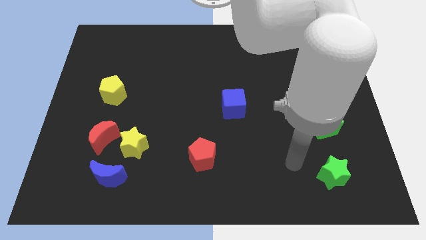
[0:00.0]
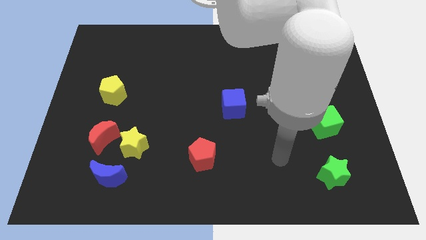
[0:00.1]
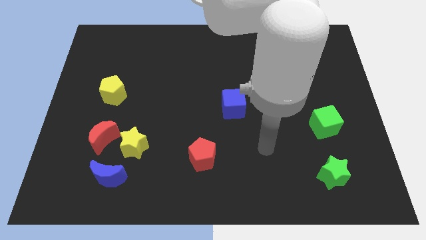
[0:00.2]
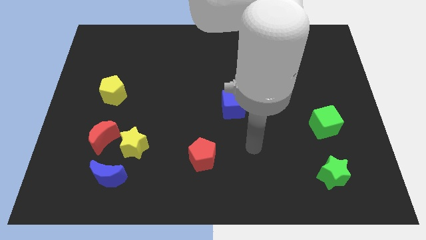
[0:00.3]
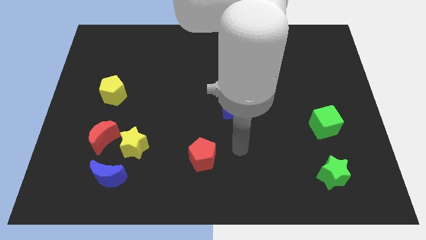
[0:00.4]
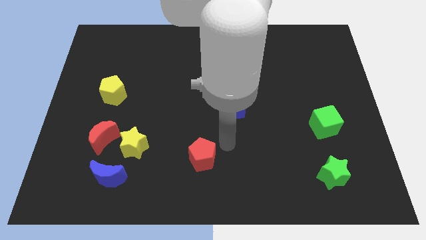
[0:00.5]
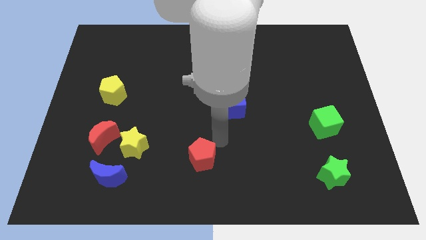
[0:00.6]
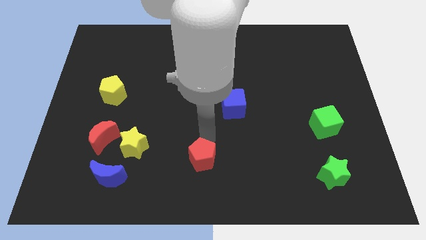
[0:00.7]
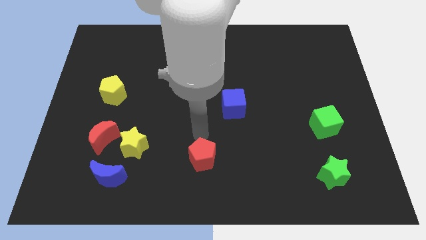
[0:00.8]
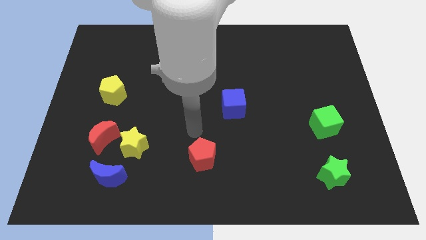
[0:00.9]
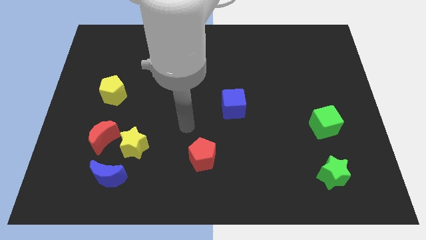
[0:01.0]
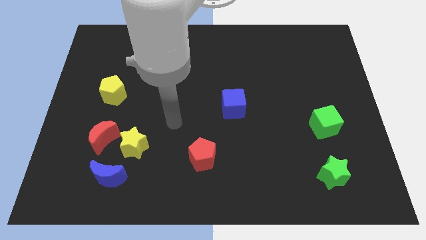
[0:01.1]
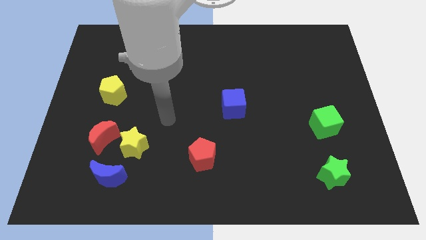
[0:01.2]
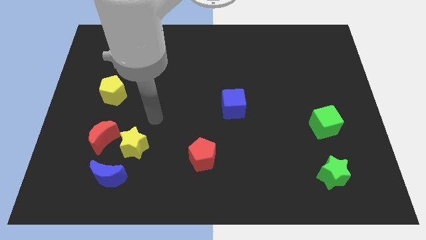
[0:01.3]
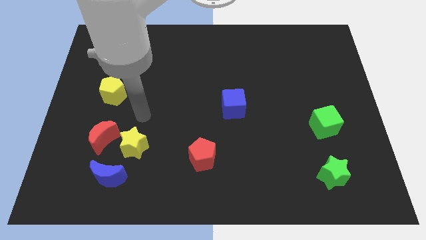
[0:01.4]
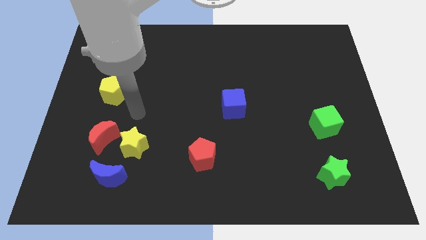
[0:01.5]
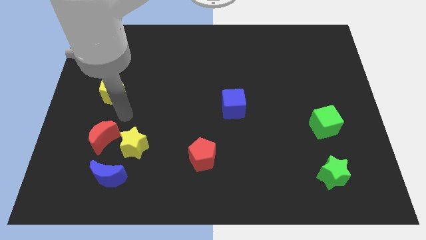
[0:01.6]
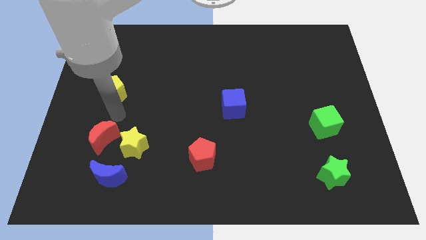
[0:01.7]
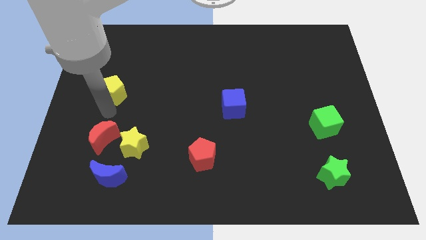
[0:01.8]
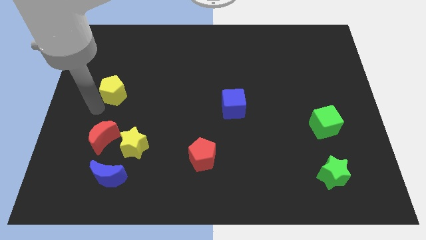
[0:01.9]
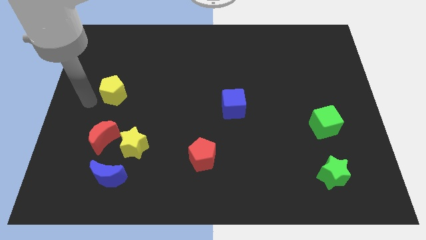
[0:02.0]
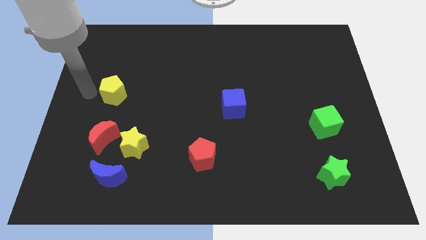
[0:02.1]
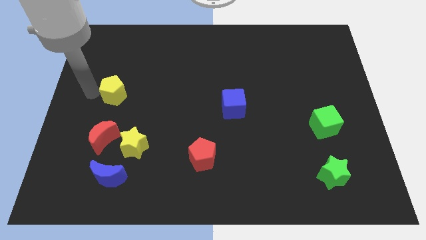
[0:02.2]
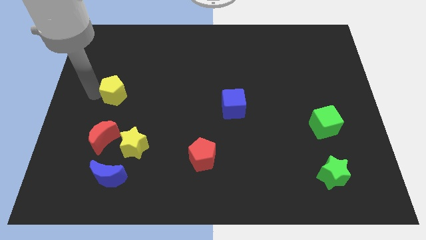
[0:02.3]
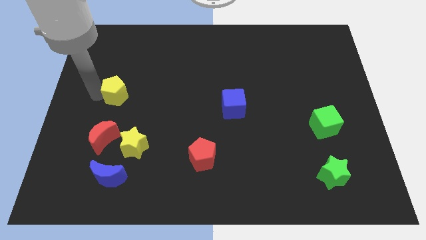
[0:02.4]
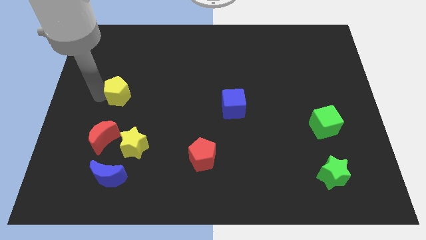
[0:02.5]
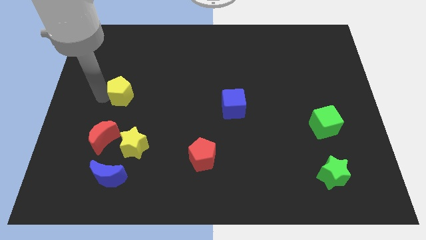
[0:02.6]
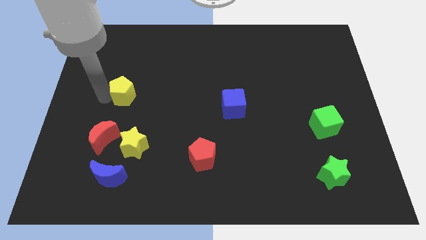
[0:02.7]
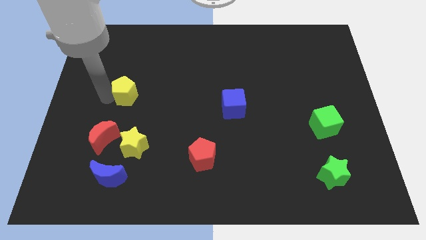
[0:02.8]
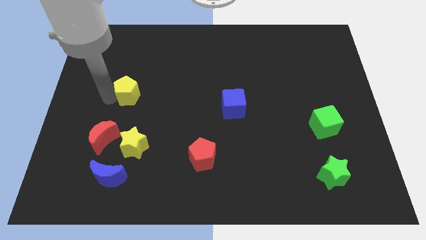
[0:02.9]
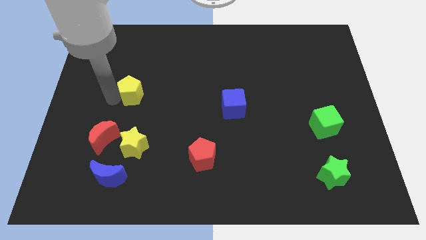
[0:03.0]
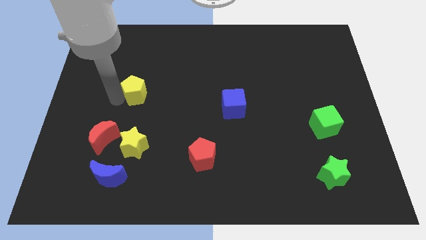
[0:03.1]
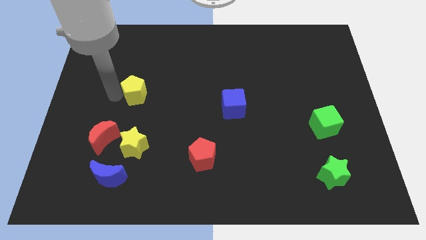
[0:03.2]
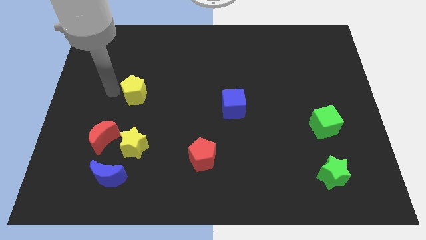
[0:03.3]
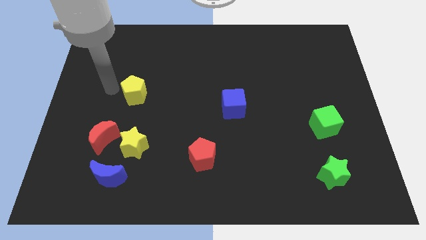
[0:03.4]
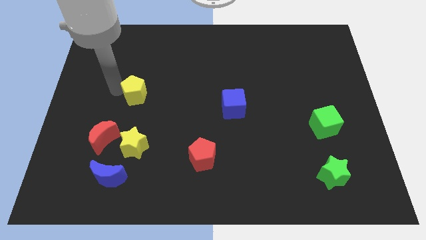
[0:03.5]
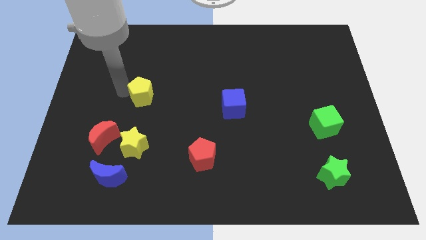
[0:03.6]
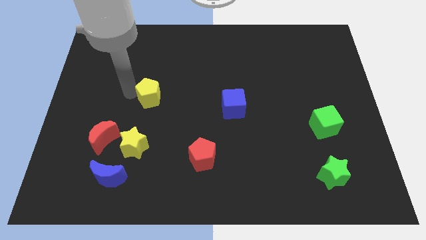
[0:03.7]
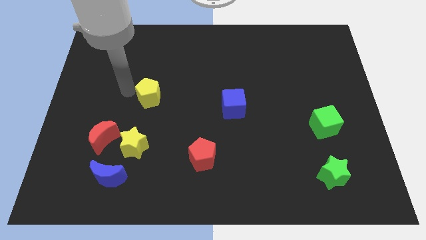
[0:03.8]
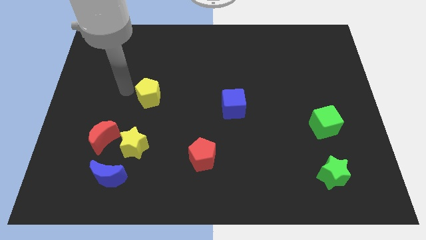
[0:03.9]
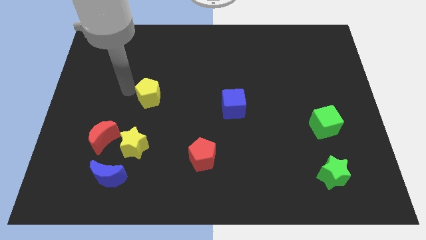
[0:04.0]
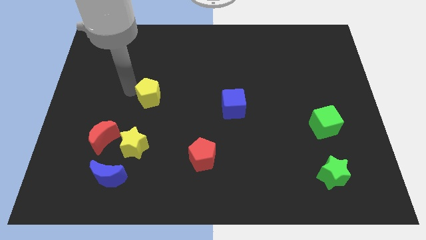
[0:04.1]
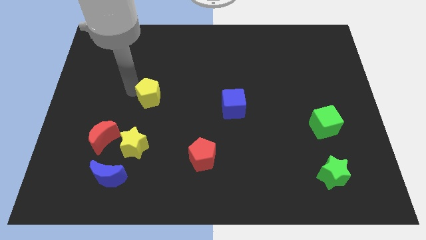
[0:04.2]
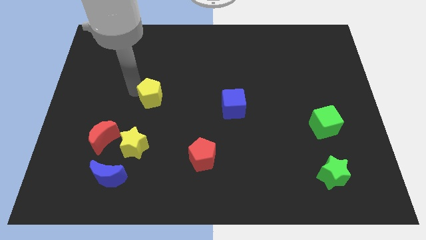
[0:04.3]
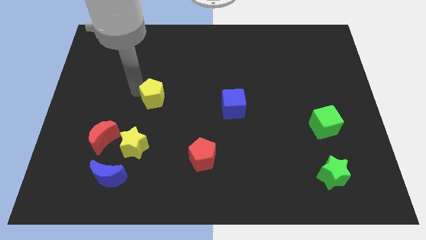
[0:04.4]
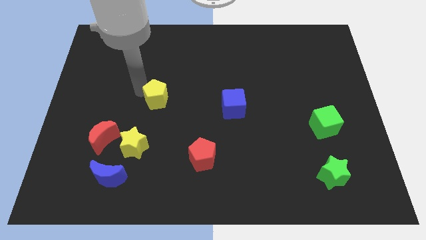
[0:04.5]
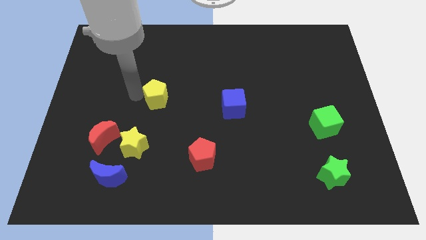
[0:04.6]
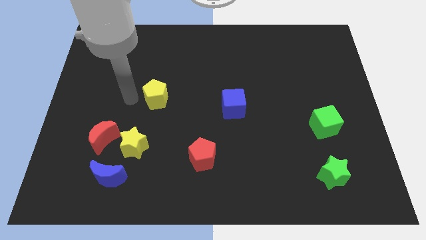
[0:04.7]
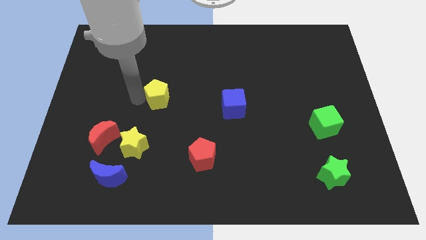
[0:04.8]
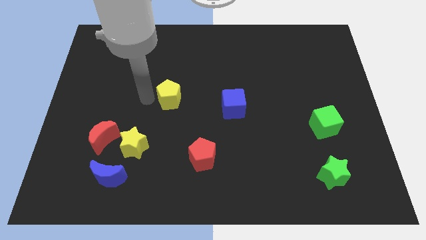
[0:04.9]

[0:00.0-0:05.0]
slide the yellow pentagon to the center of the board

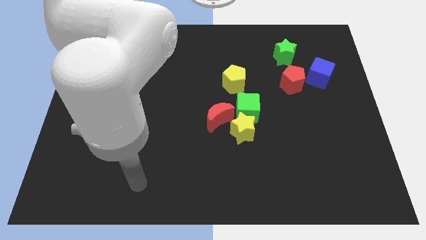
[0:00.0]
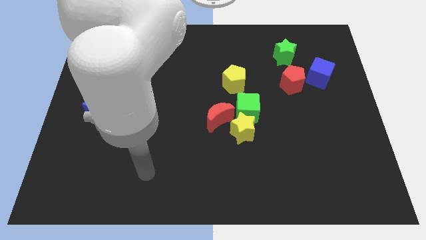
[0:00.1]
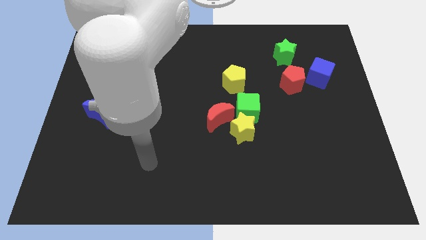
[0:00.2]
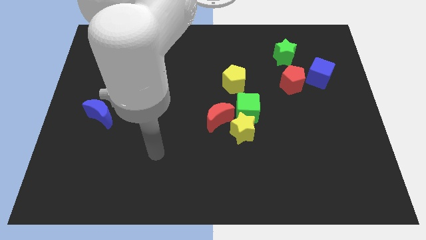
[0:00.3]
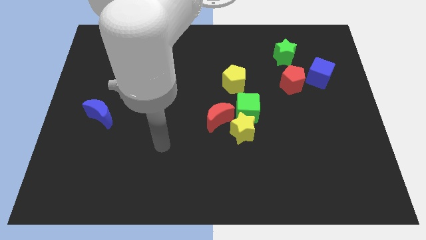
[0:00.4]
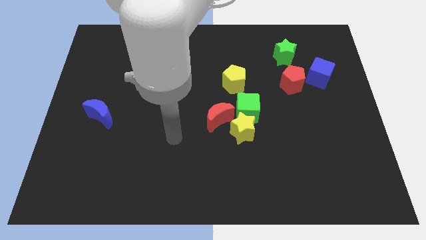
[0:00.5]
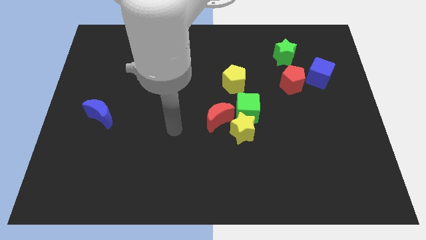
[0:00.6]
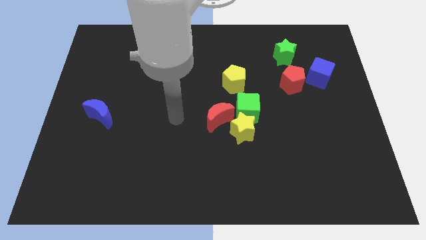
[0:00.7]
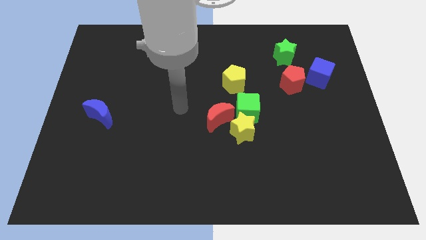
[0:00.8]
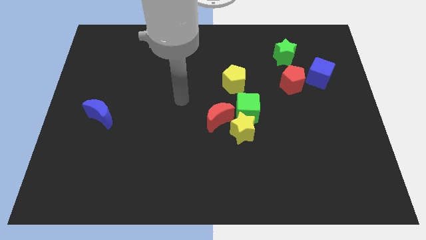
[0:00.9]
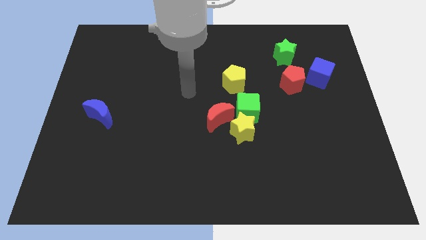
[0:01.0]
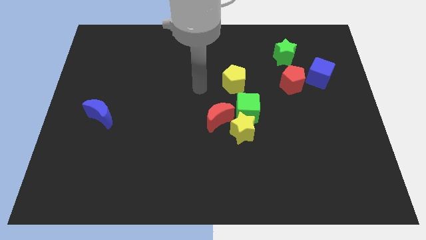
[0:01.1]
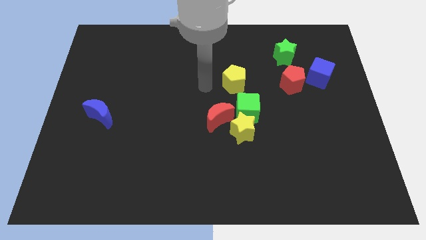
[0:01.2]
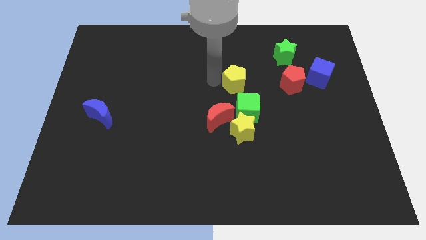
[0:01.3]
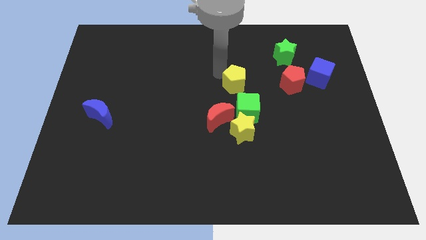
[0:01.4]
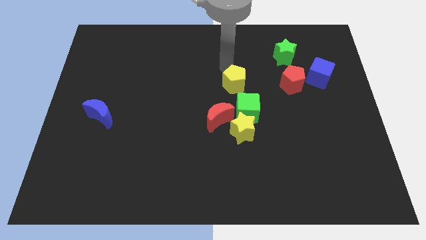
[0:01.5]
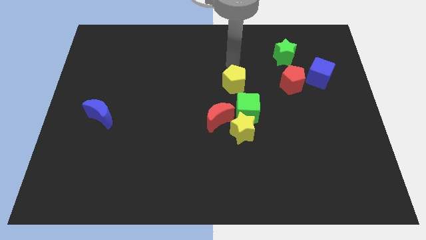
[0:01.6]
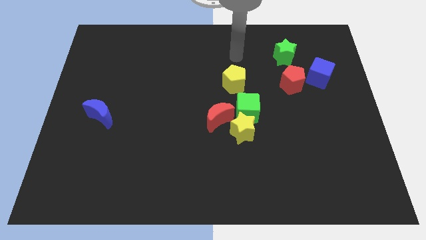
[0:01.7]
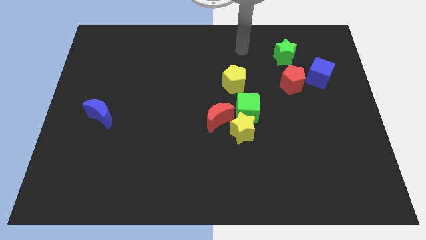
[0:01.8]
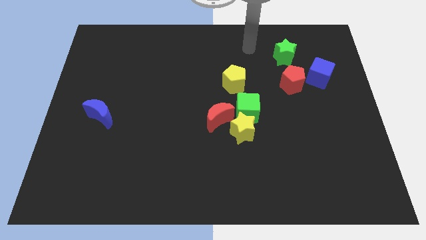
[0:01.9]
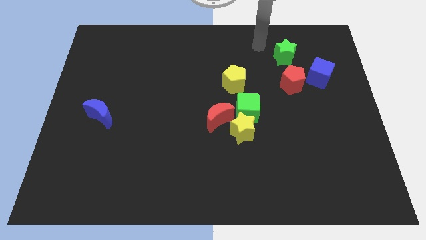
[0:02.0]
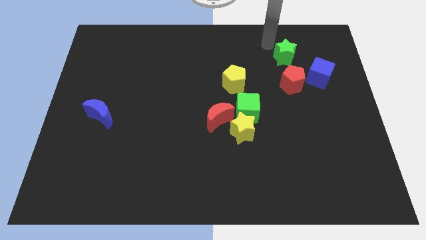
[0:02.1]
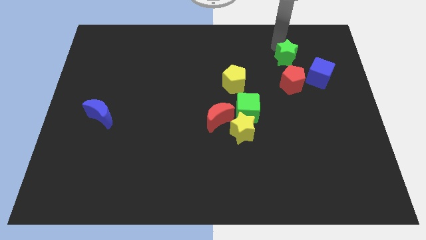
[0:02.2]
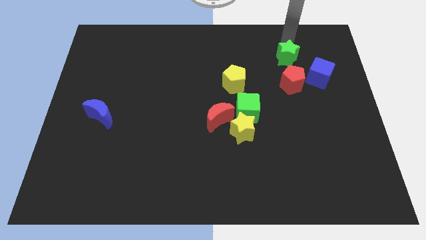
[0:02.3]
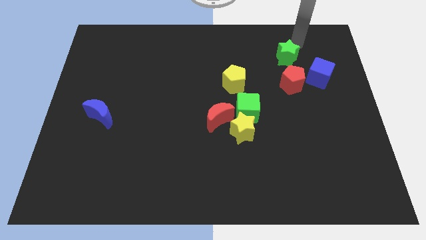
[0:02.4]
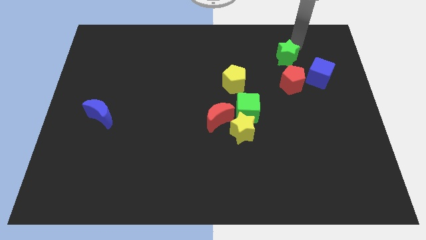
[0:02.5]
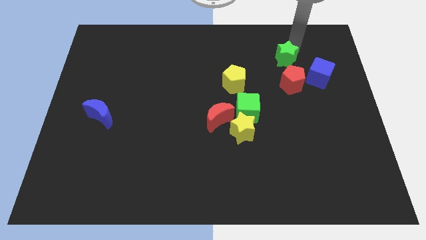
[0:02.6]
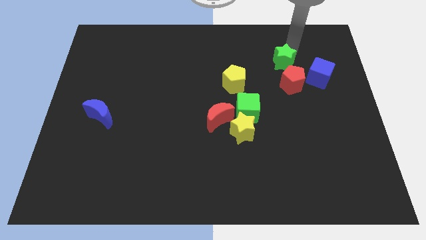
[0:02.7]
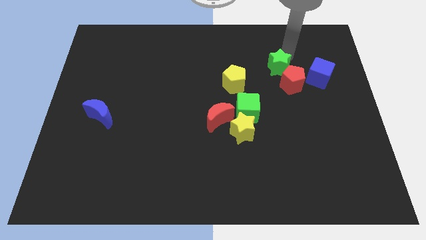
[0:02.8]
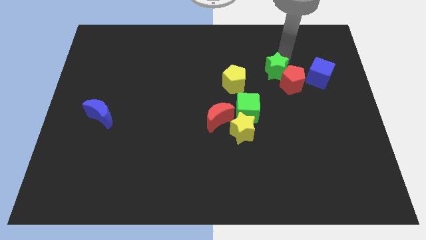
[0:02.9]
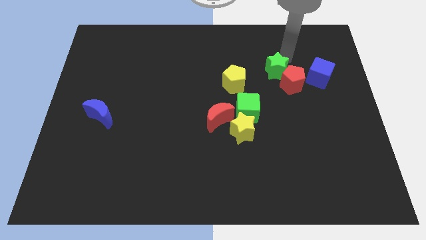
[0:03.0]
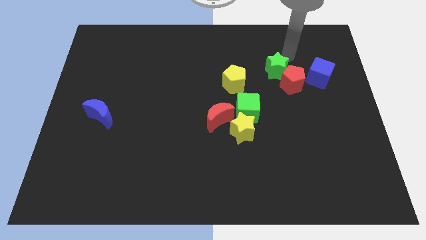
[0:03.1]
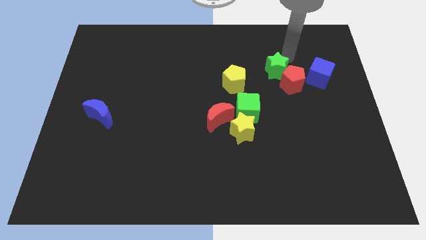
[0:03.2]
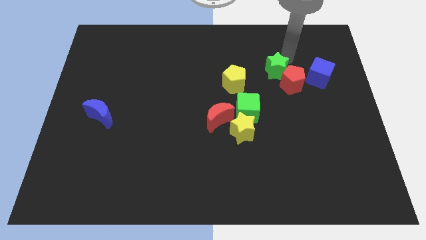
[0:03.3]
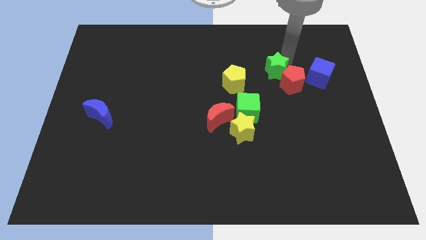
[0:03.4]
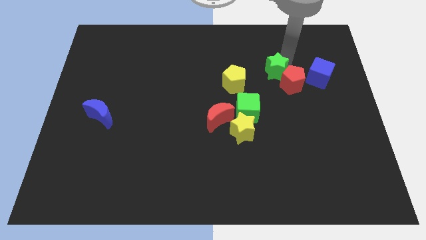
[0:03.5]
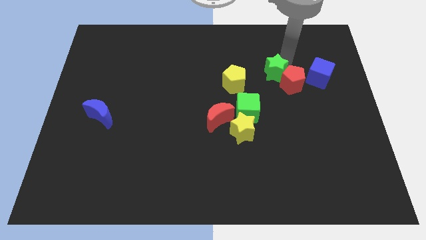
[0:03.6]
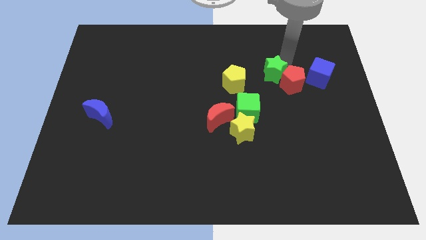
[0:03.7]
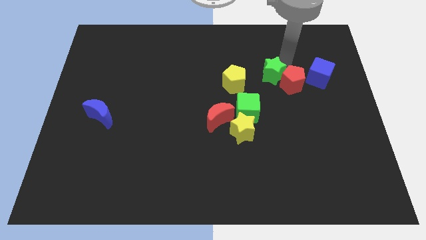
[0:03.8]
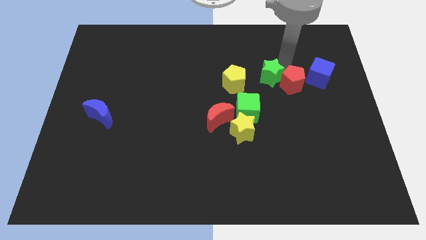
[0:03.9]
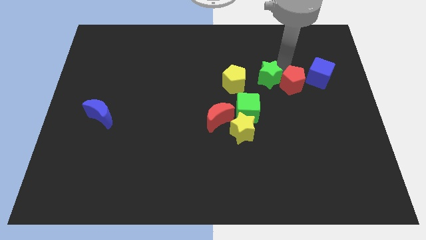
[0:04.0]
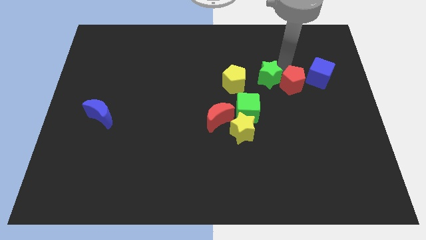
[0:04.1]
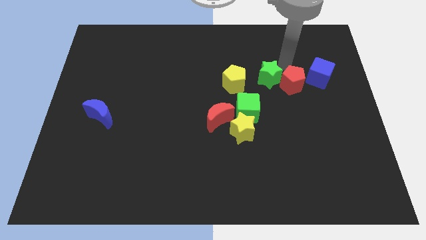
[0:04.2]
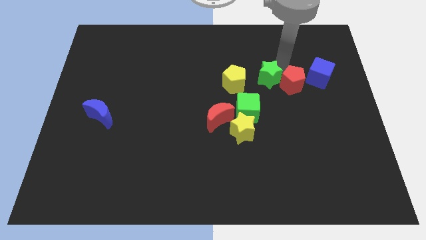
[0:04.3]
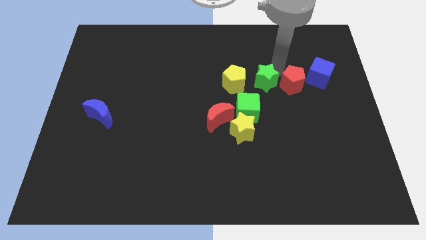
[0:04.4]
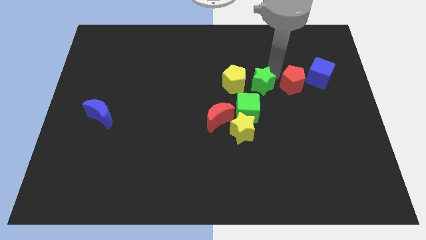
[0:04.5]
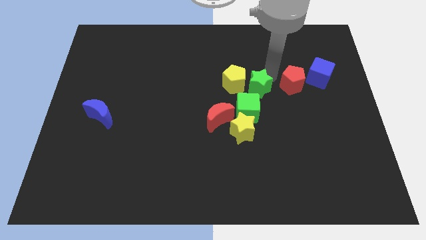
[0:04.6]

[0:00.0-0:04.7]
move the green star to the middle of the board
